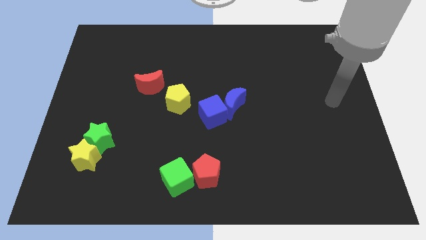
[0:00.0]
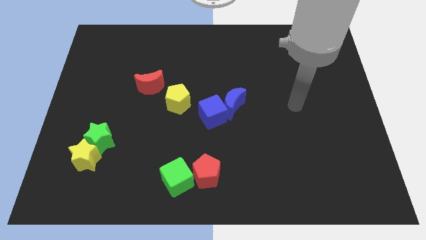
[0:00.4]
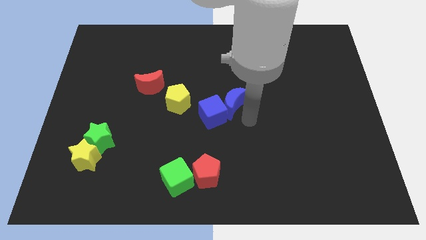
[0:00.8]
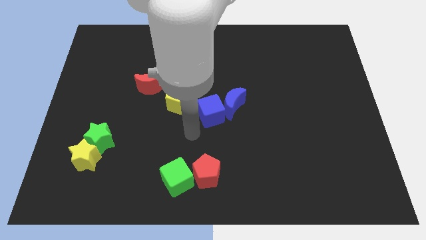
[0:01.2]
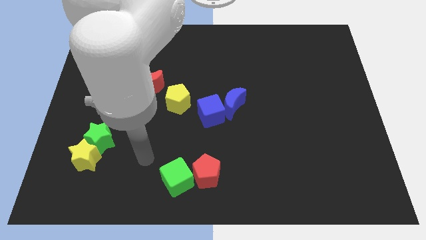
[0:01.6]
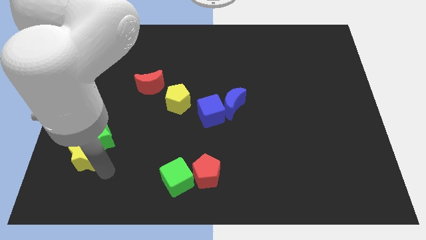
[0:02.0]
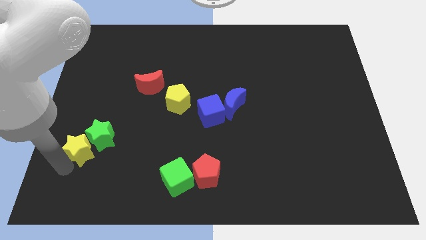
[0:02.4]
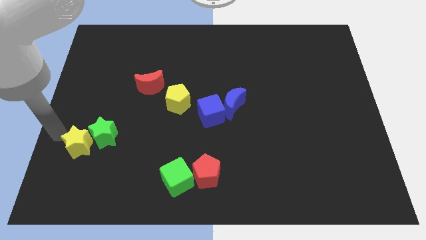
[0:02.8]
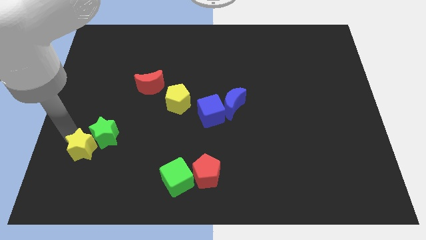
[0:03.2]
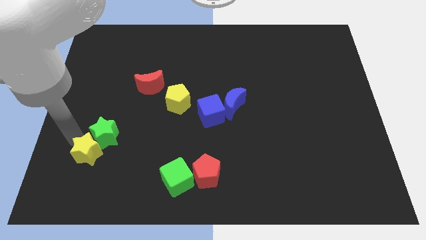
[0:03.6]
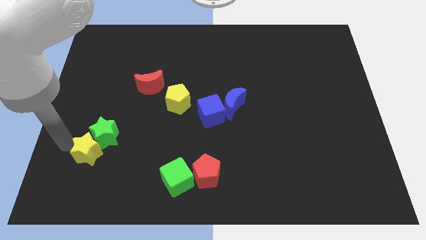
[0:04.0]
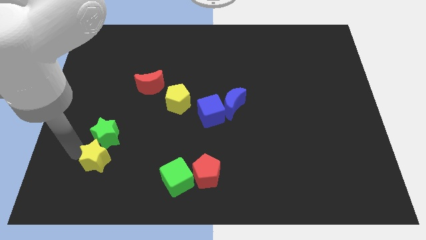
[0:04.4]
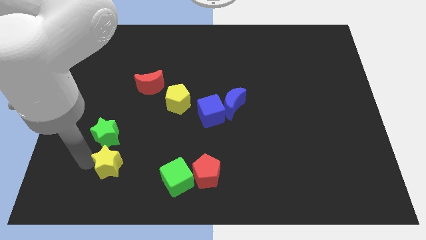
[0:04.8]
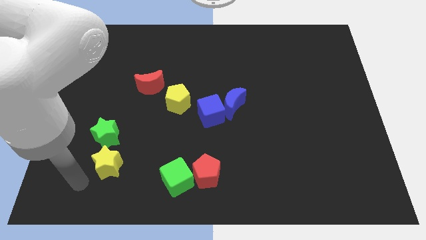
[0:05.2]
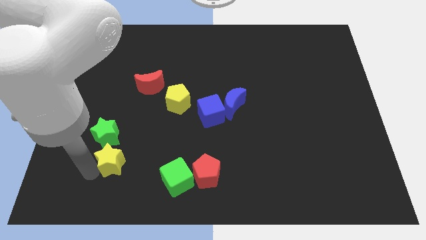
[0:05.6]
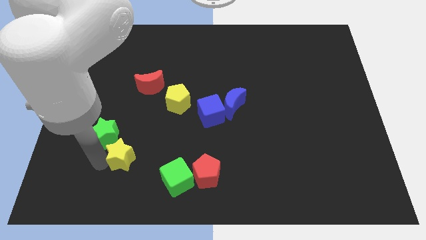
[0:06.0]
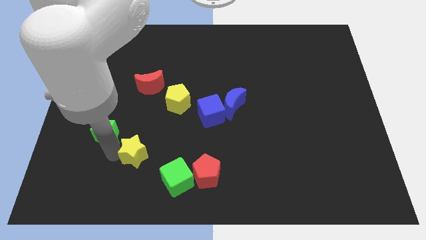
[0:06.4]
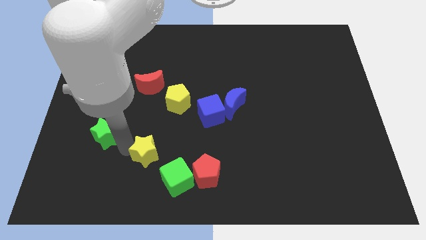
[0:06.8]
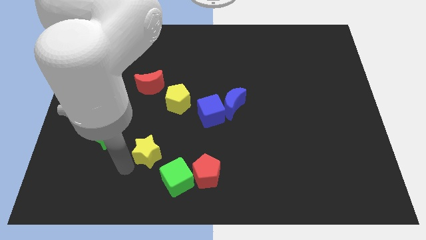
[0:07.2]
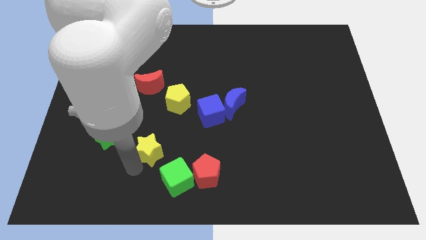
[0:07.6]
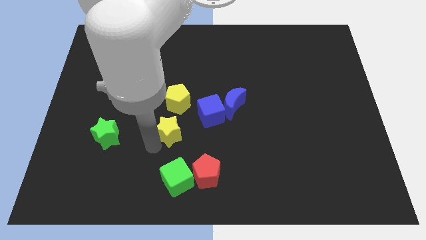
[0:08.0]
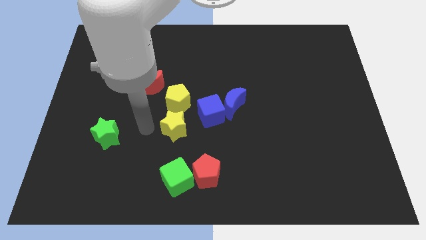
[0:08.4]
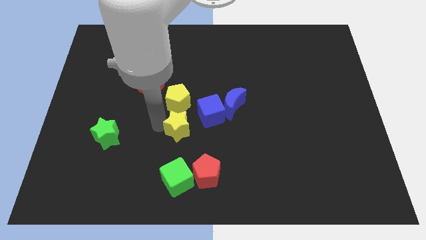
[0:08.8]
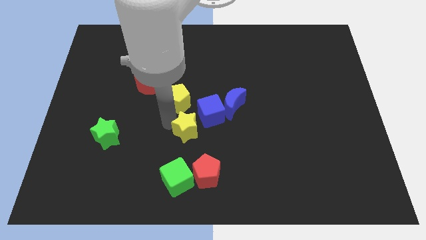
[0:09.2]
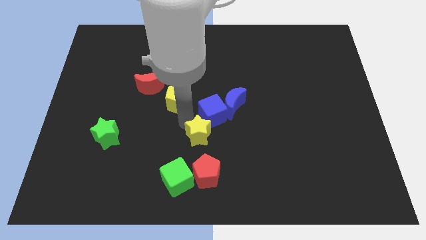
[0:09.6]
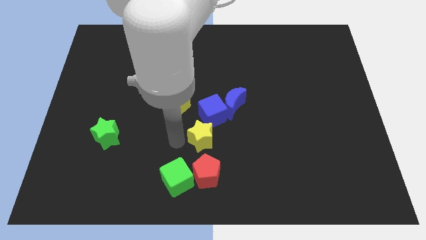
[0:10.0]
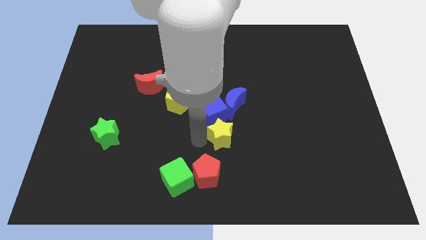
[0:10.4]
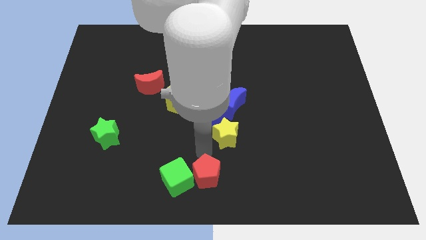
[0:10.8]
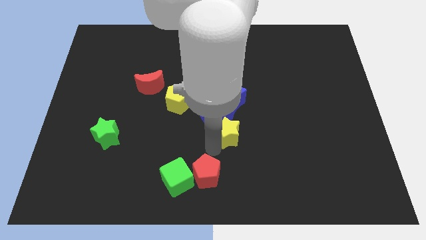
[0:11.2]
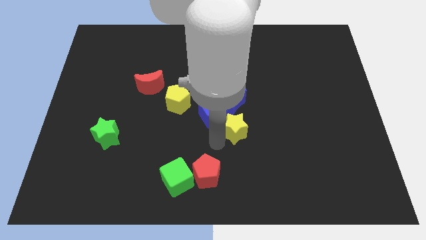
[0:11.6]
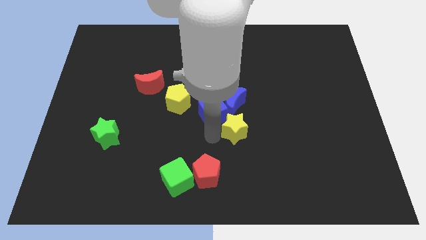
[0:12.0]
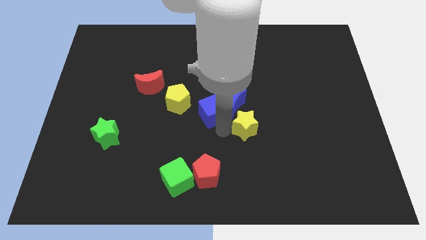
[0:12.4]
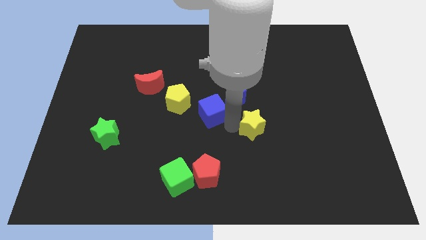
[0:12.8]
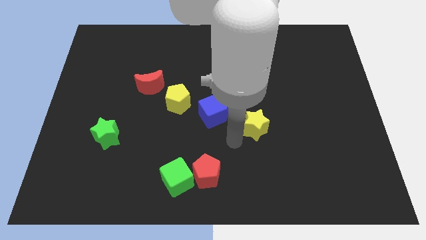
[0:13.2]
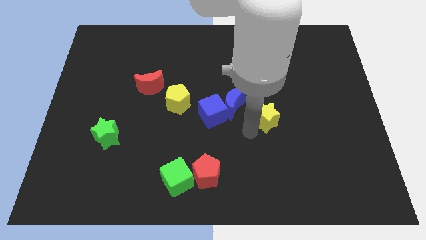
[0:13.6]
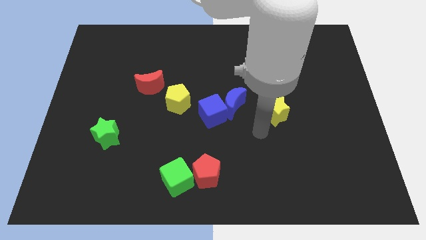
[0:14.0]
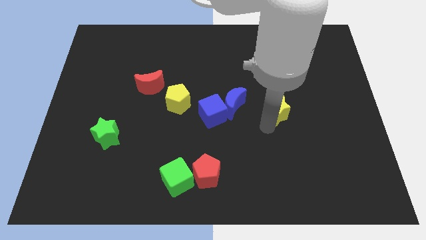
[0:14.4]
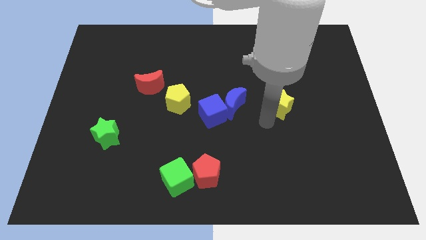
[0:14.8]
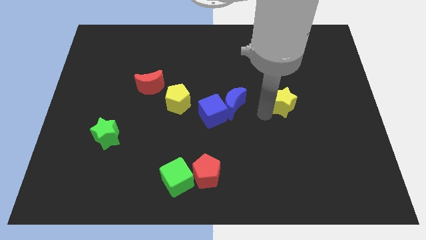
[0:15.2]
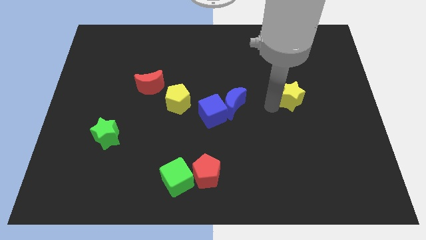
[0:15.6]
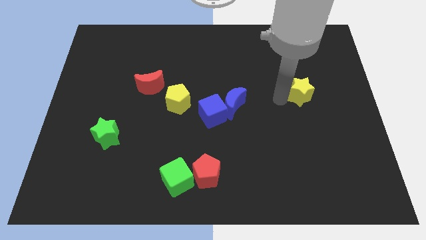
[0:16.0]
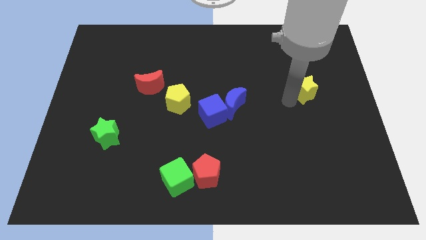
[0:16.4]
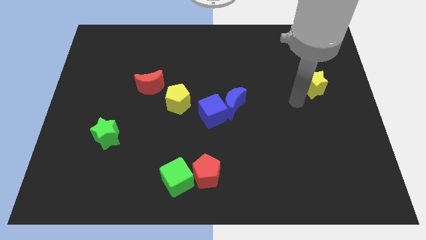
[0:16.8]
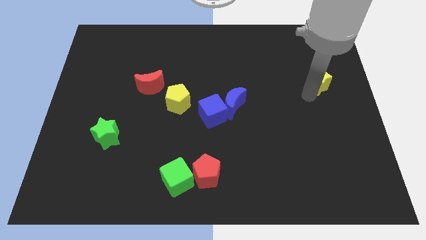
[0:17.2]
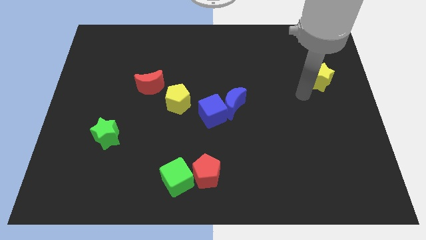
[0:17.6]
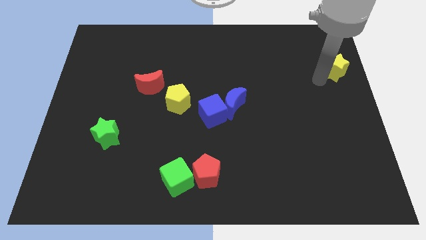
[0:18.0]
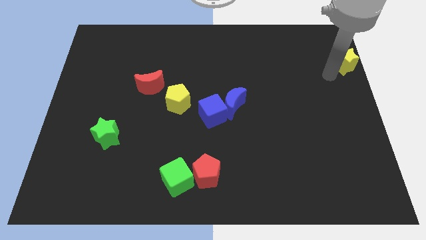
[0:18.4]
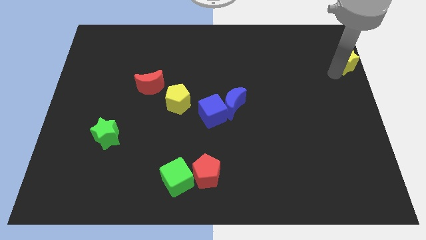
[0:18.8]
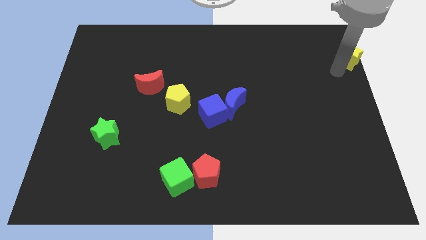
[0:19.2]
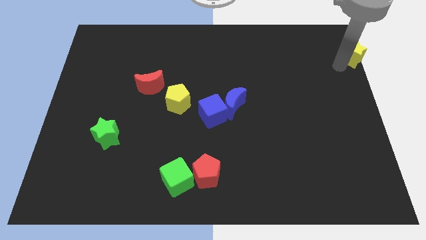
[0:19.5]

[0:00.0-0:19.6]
push the yellow star to the top right

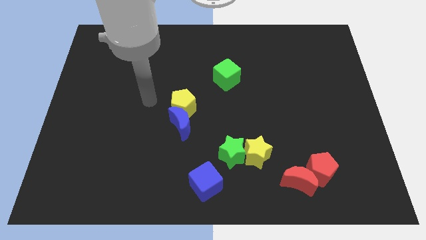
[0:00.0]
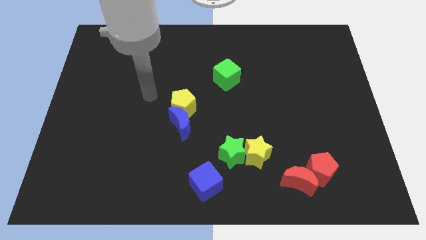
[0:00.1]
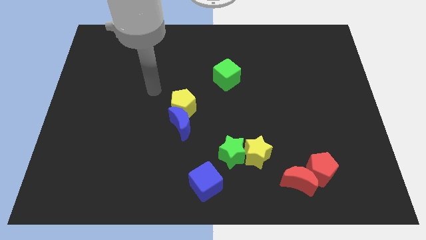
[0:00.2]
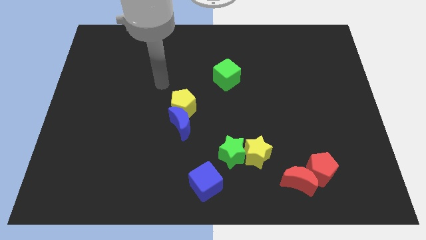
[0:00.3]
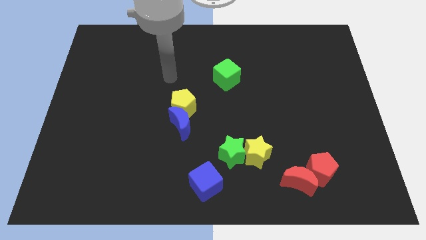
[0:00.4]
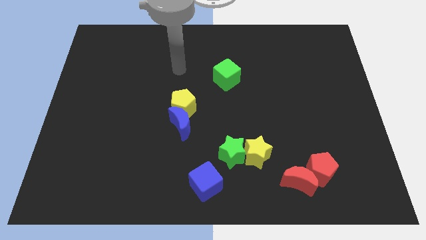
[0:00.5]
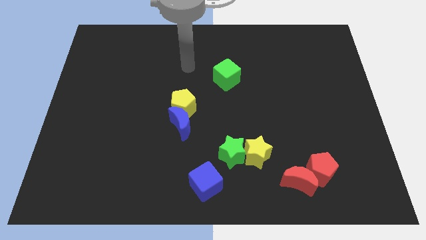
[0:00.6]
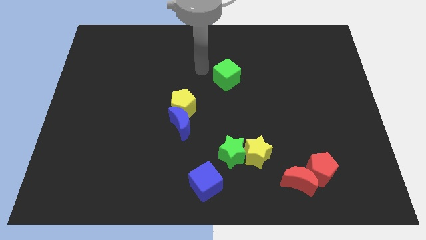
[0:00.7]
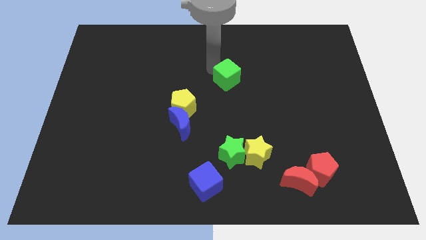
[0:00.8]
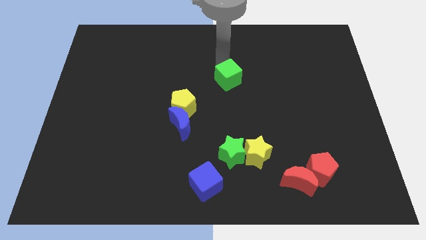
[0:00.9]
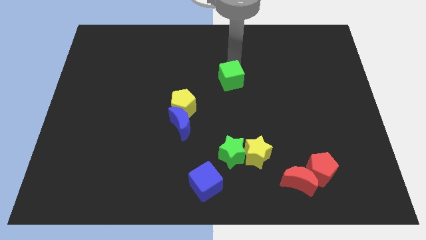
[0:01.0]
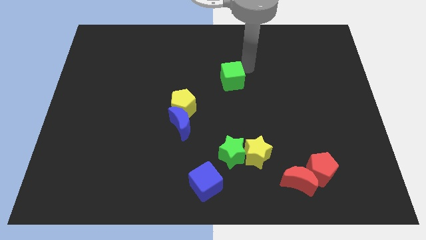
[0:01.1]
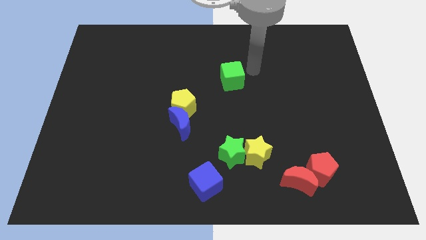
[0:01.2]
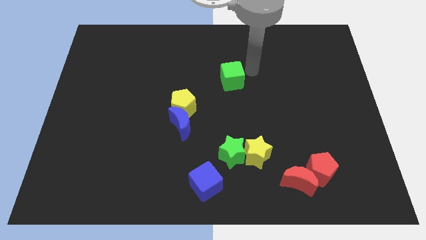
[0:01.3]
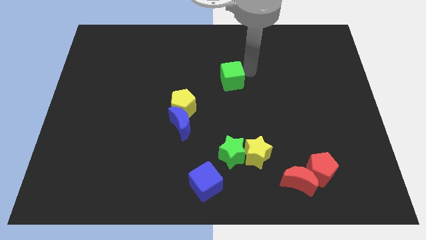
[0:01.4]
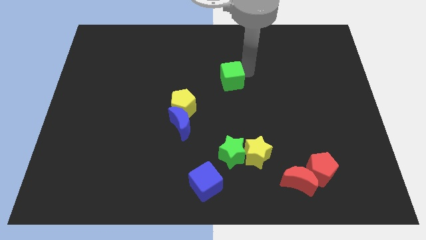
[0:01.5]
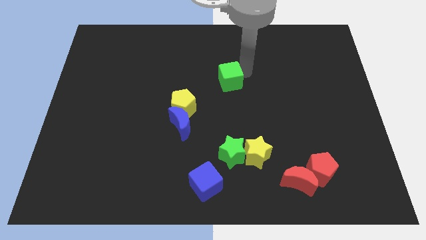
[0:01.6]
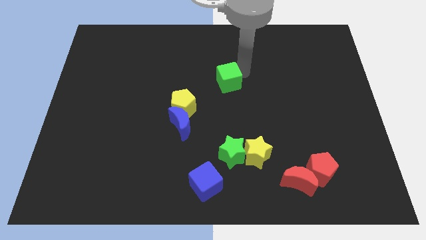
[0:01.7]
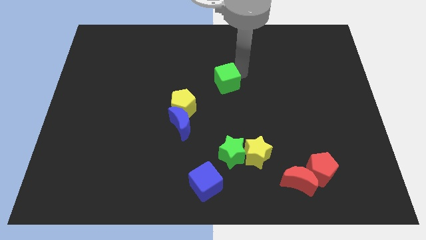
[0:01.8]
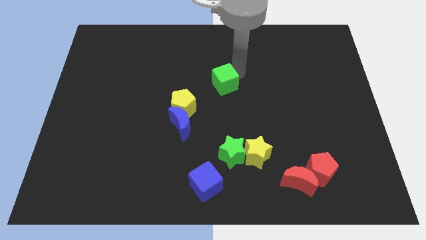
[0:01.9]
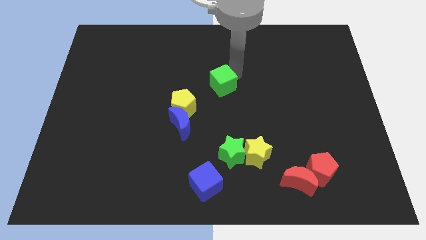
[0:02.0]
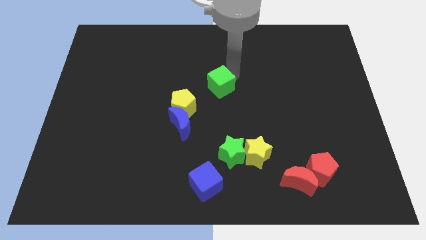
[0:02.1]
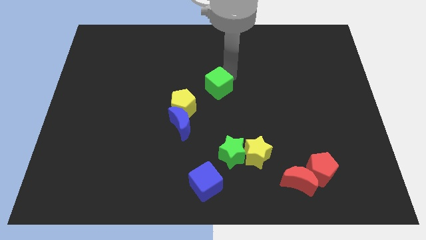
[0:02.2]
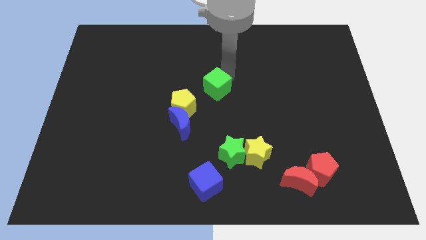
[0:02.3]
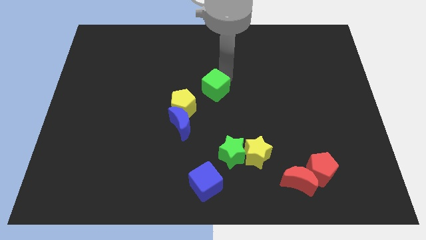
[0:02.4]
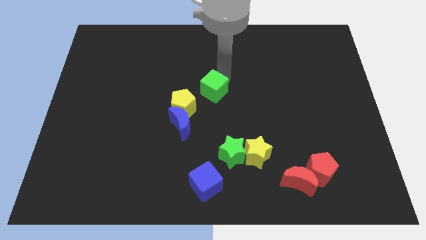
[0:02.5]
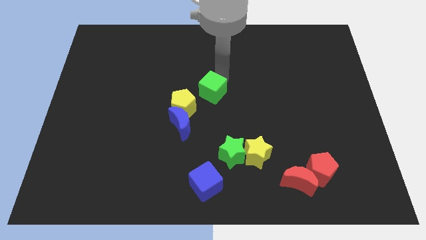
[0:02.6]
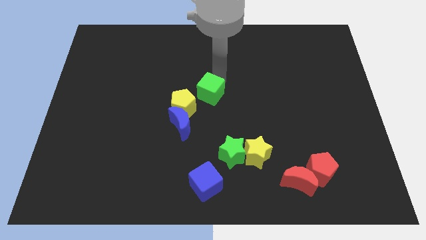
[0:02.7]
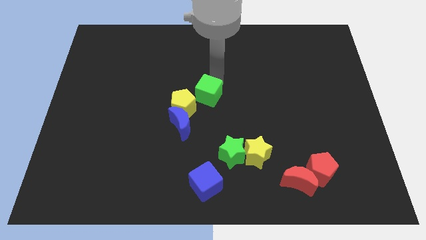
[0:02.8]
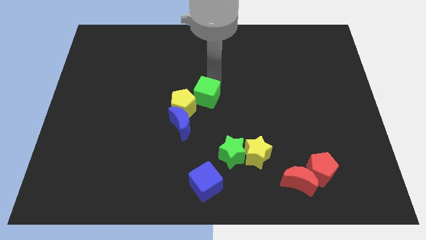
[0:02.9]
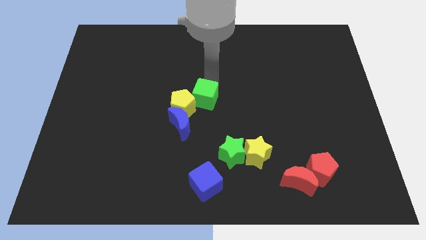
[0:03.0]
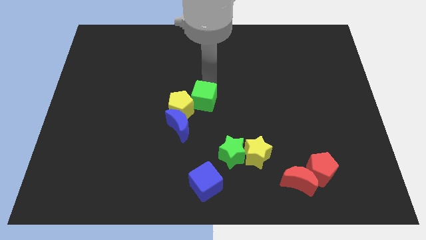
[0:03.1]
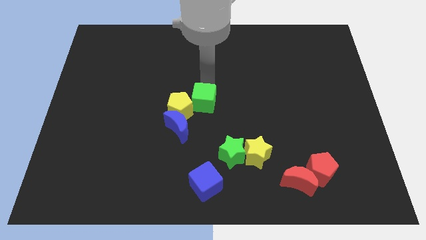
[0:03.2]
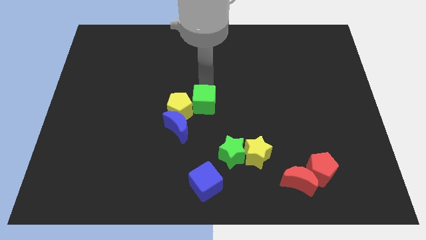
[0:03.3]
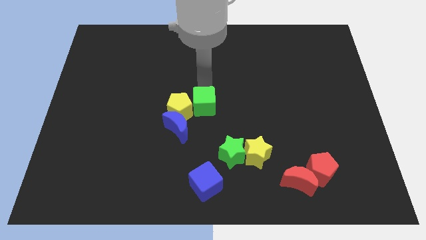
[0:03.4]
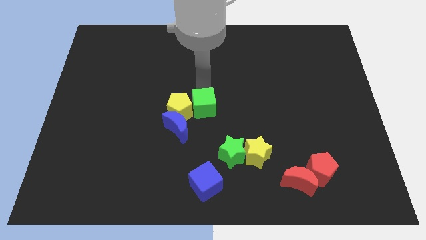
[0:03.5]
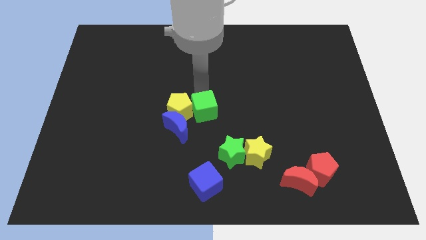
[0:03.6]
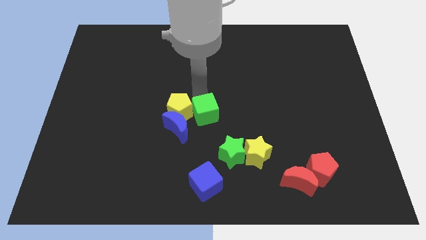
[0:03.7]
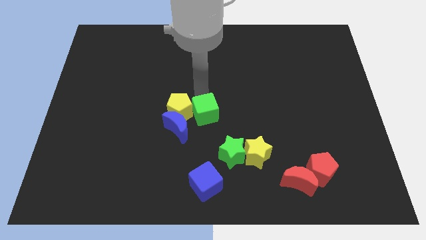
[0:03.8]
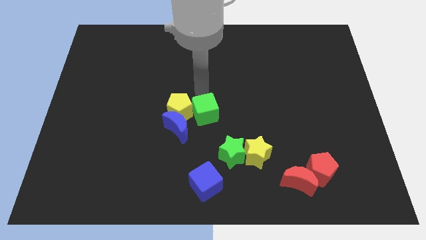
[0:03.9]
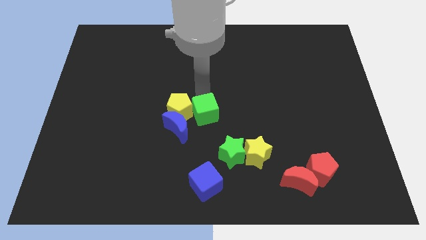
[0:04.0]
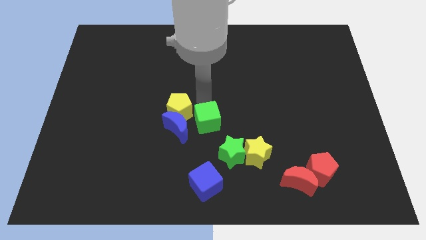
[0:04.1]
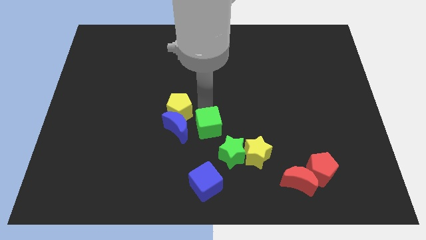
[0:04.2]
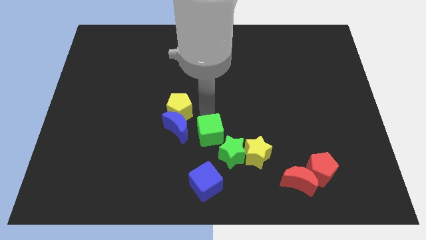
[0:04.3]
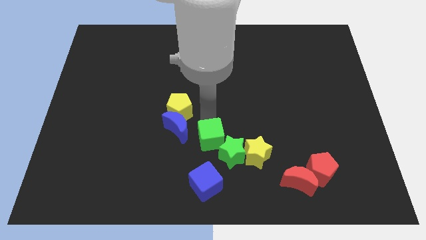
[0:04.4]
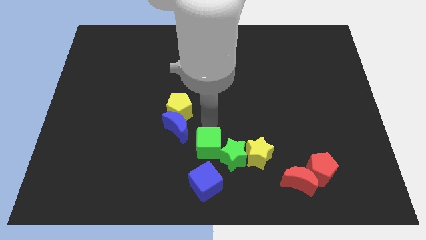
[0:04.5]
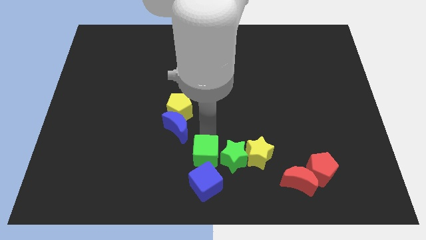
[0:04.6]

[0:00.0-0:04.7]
put the green cube to the bottom side
